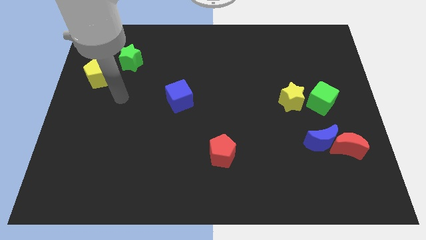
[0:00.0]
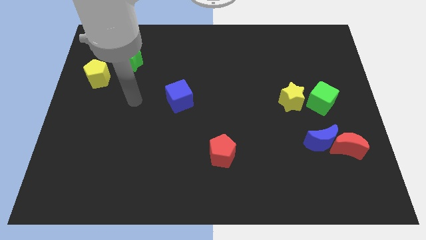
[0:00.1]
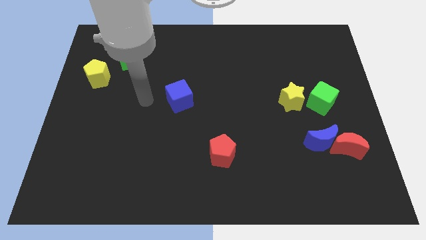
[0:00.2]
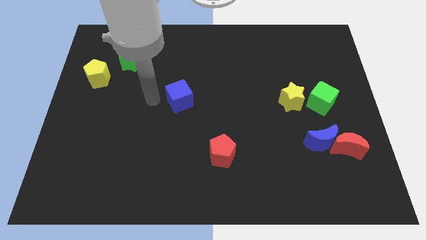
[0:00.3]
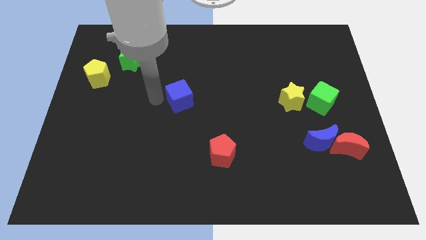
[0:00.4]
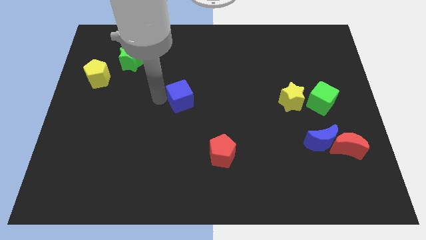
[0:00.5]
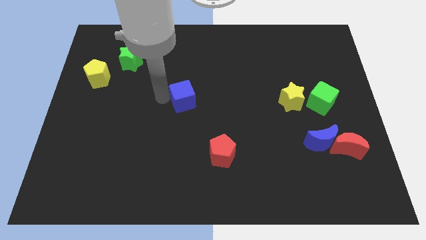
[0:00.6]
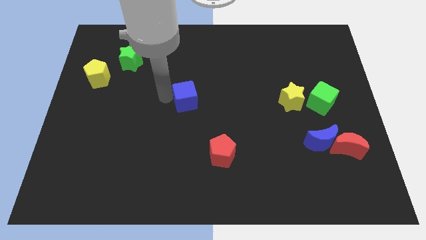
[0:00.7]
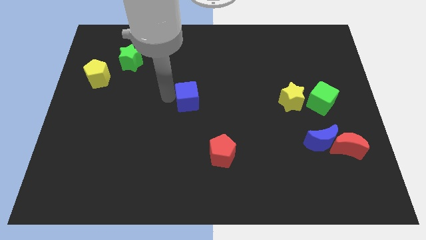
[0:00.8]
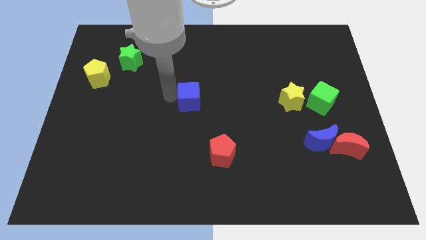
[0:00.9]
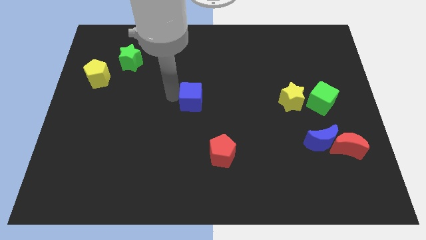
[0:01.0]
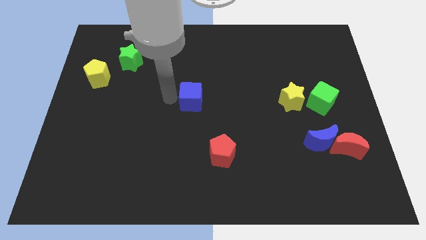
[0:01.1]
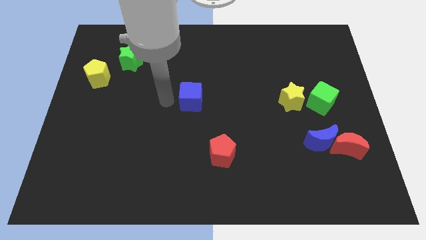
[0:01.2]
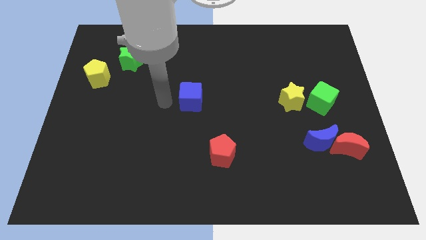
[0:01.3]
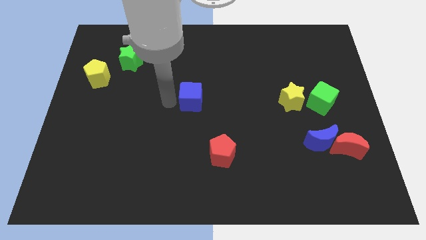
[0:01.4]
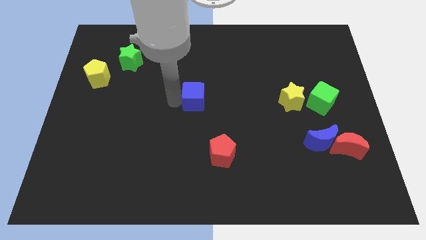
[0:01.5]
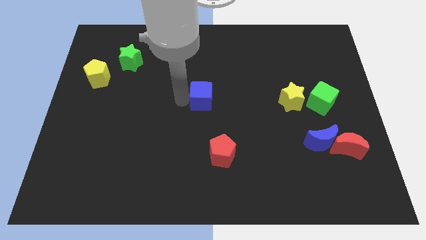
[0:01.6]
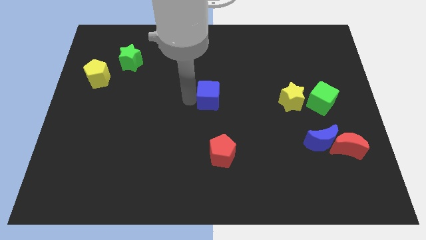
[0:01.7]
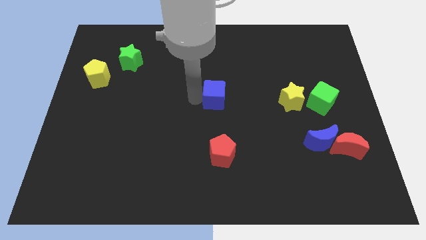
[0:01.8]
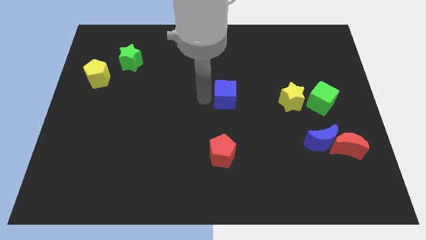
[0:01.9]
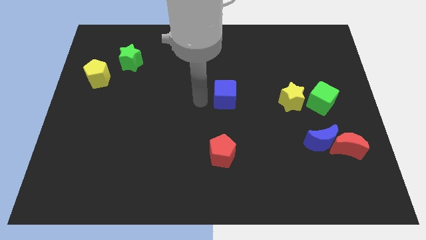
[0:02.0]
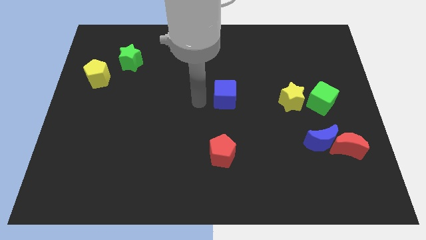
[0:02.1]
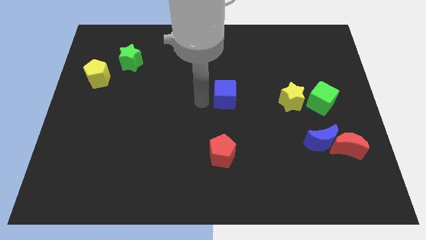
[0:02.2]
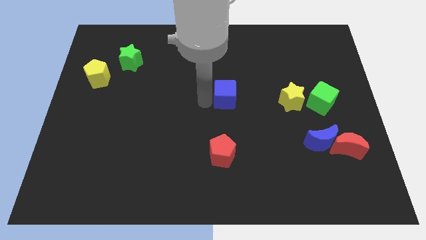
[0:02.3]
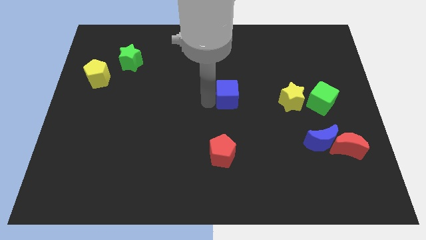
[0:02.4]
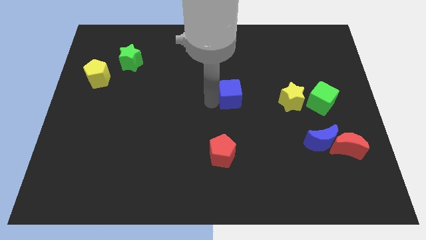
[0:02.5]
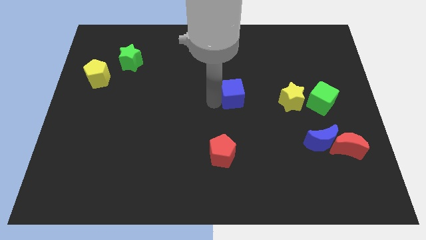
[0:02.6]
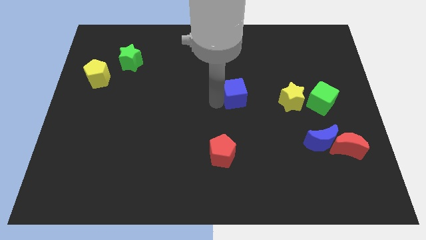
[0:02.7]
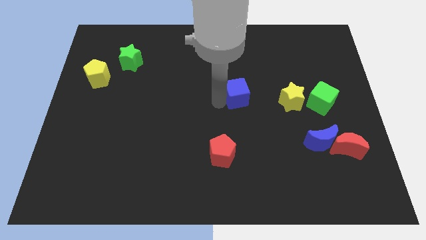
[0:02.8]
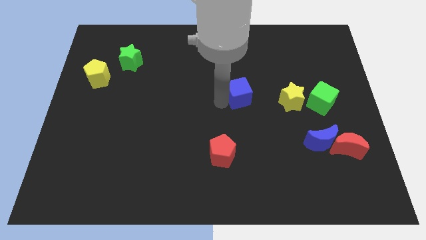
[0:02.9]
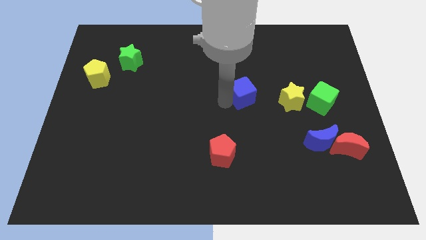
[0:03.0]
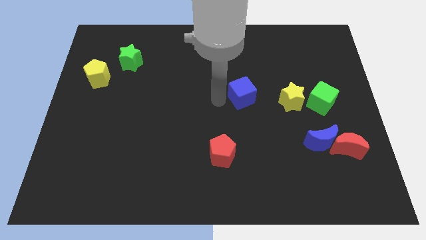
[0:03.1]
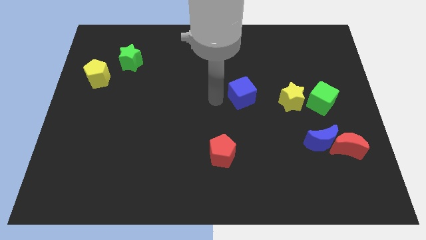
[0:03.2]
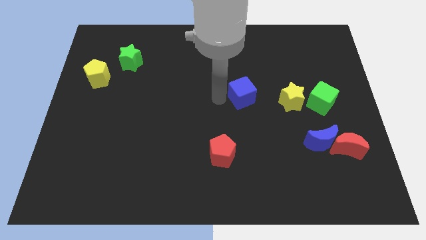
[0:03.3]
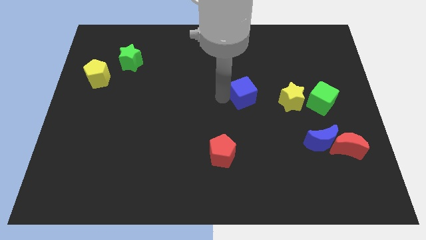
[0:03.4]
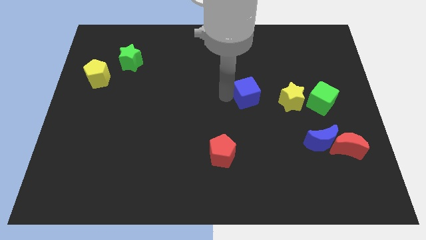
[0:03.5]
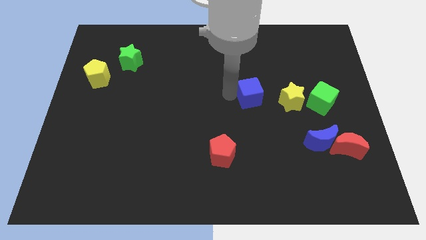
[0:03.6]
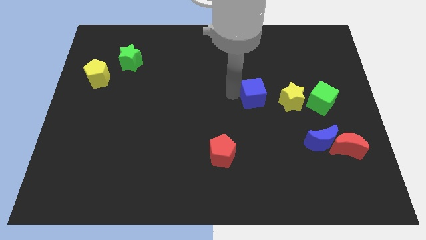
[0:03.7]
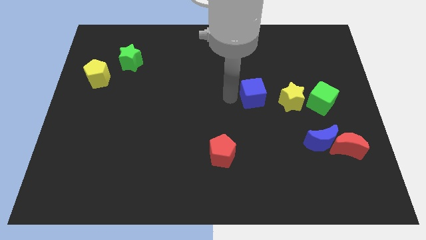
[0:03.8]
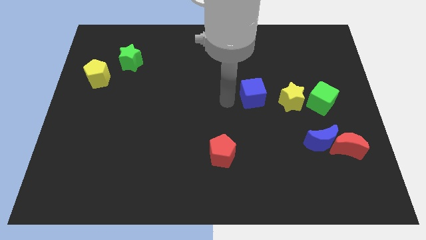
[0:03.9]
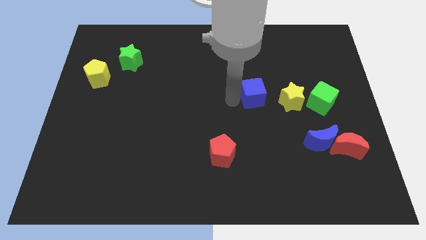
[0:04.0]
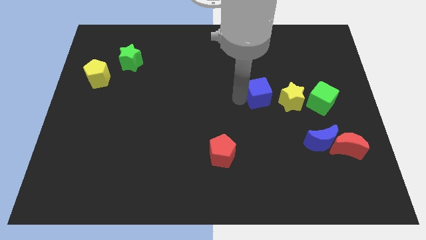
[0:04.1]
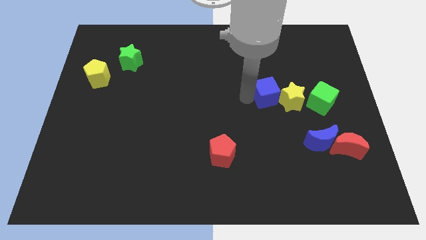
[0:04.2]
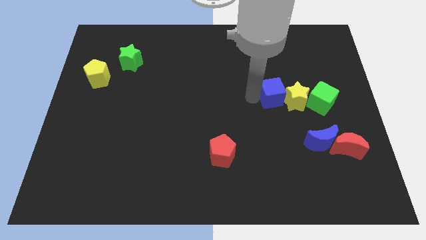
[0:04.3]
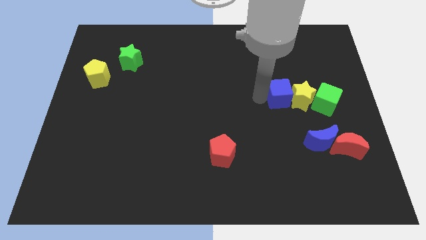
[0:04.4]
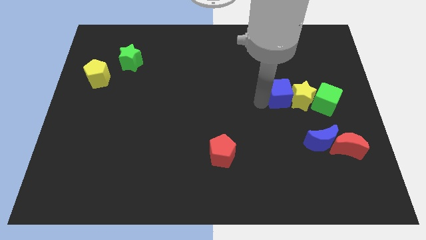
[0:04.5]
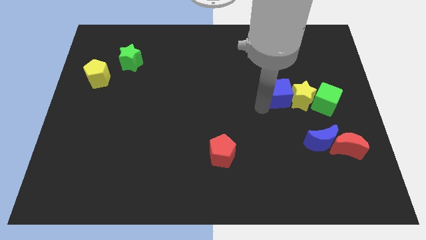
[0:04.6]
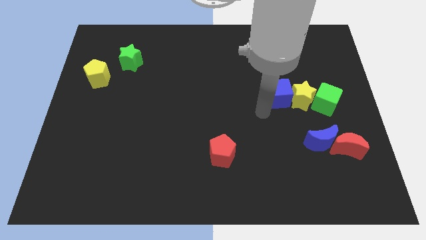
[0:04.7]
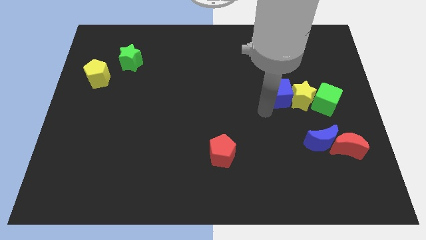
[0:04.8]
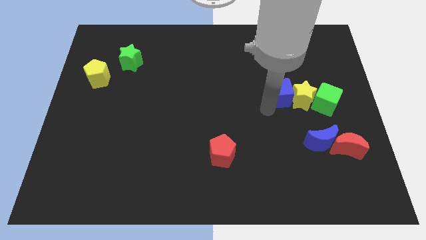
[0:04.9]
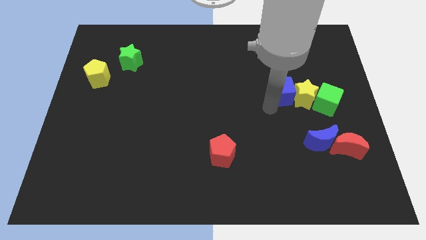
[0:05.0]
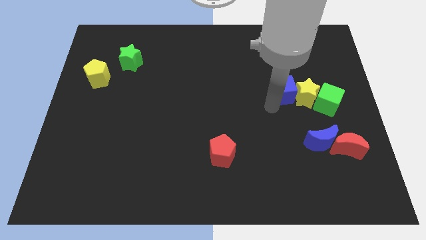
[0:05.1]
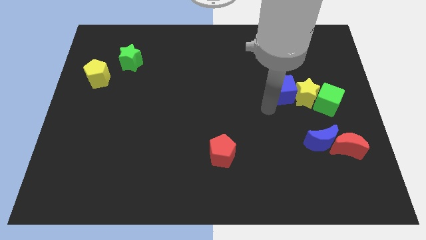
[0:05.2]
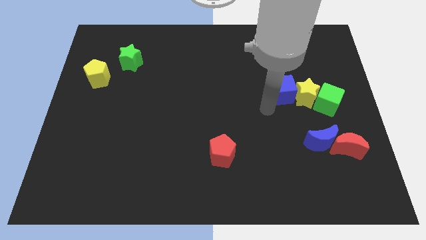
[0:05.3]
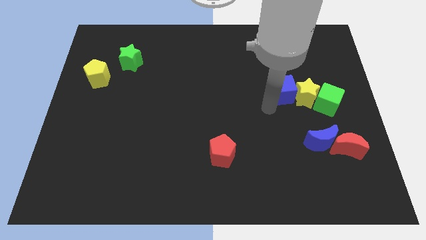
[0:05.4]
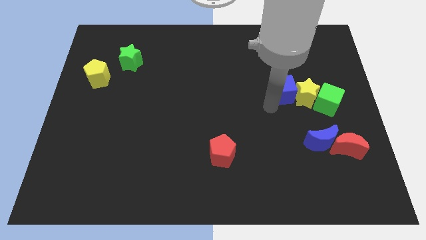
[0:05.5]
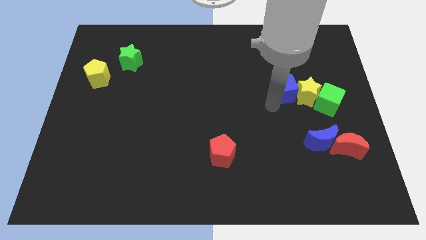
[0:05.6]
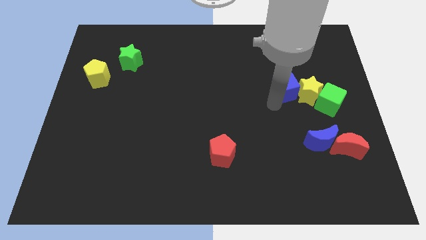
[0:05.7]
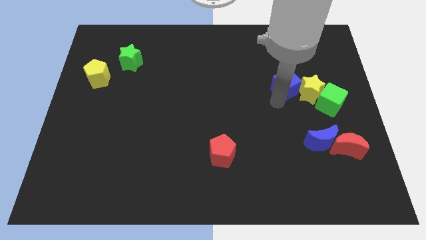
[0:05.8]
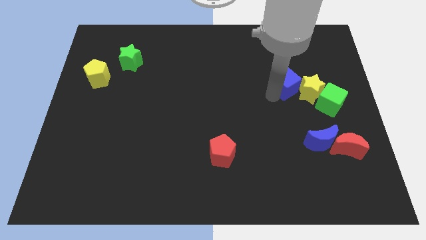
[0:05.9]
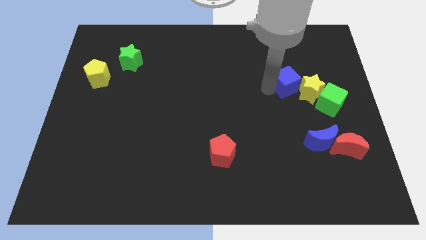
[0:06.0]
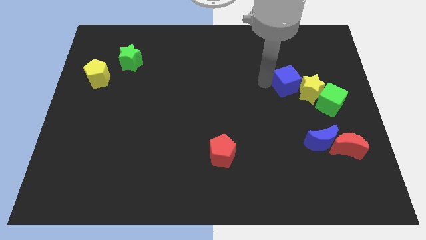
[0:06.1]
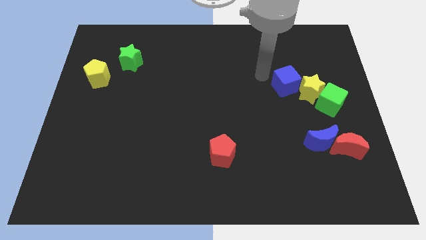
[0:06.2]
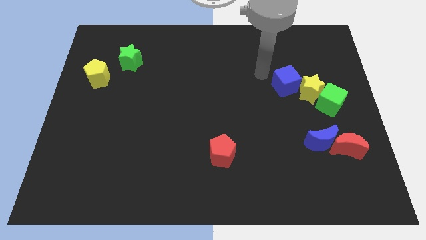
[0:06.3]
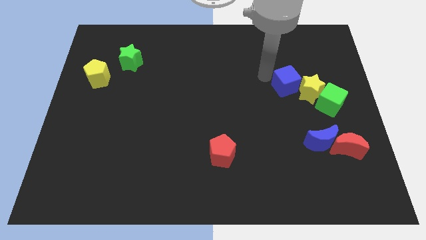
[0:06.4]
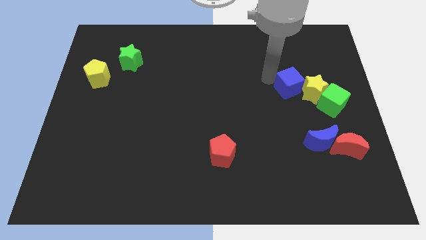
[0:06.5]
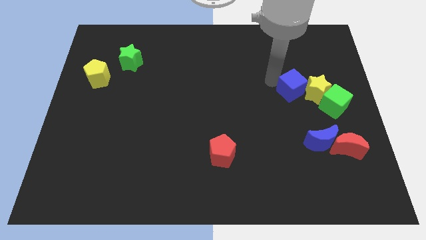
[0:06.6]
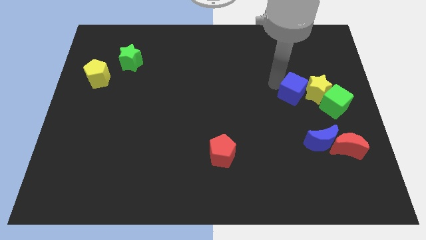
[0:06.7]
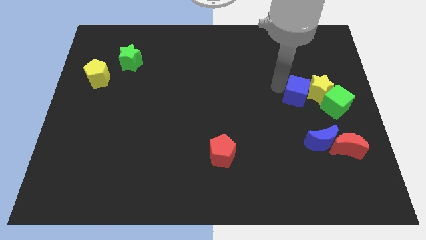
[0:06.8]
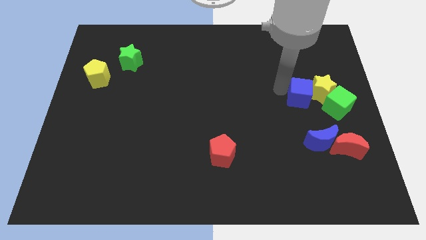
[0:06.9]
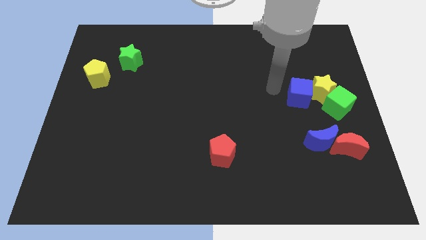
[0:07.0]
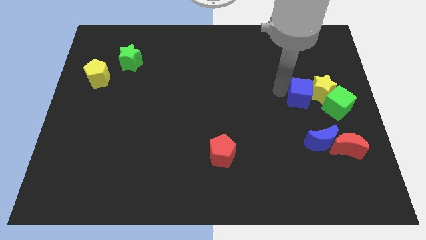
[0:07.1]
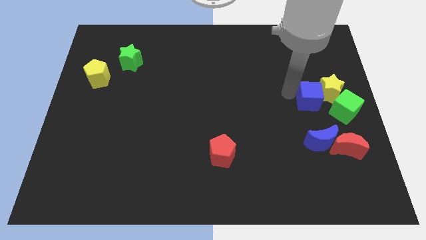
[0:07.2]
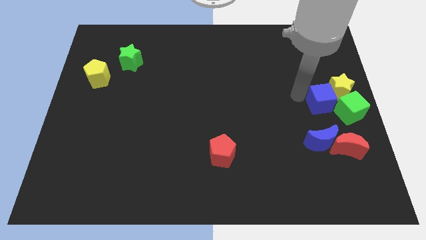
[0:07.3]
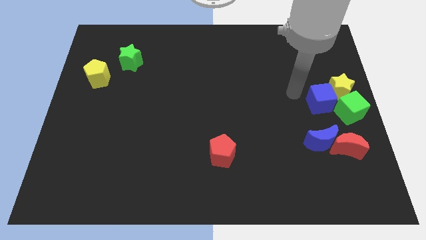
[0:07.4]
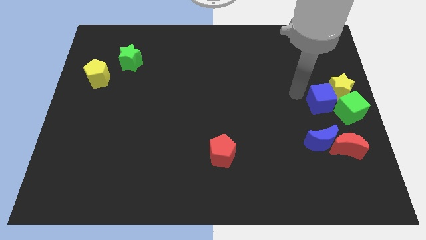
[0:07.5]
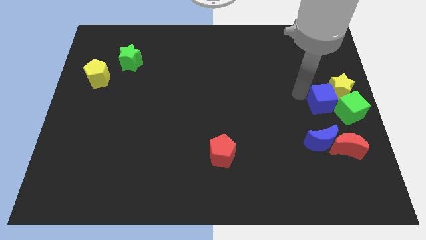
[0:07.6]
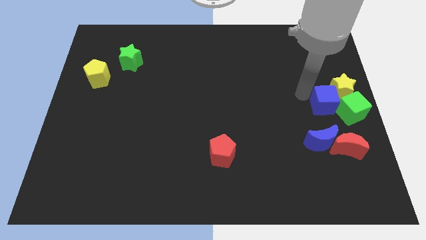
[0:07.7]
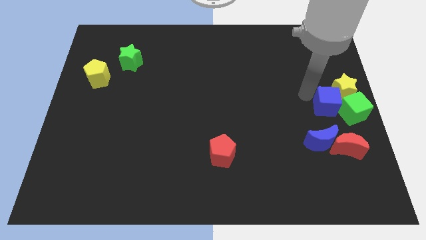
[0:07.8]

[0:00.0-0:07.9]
put the blue cube next to the green cube
